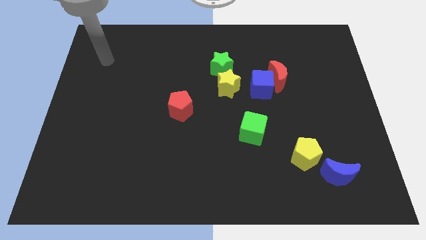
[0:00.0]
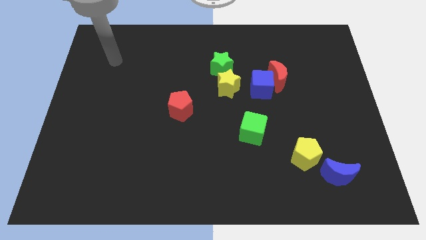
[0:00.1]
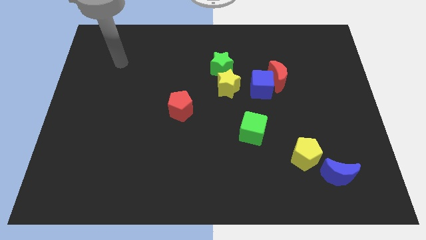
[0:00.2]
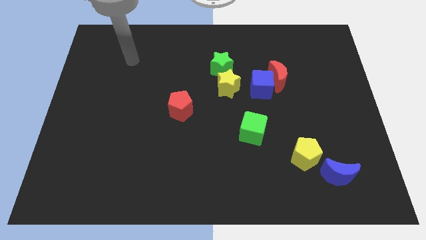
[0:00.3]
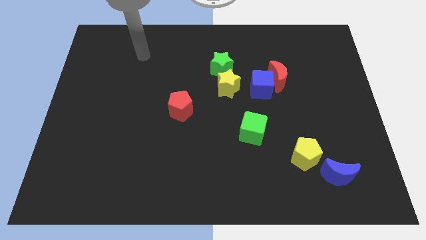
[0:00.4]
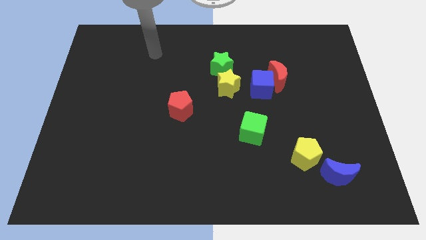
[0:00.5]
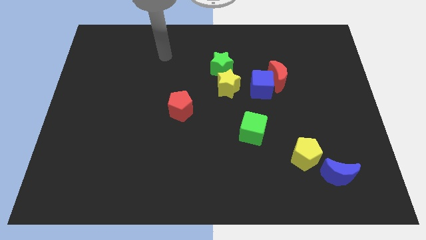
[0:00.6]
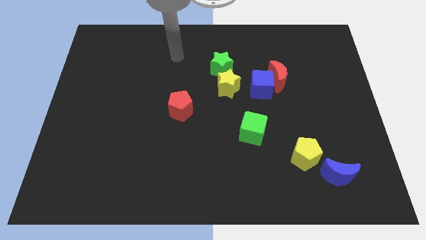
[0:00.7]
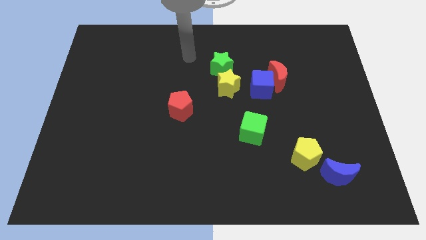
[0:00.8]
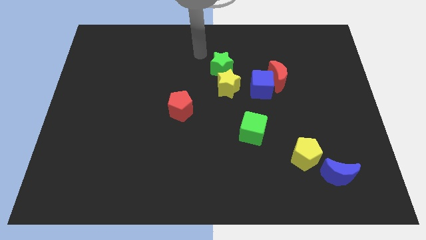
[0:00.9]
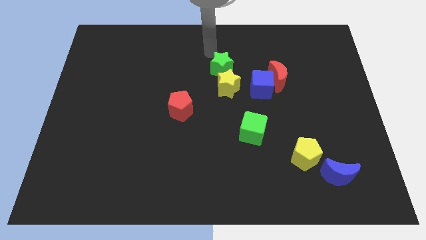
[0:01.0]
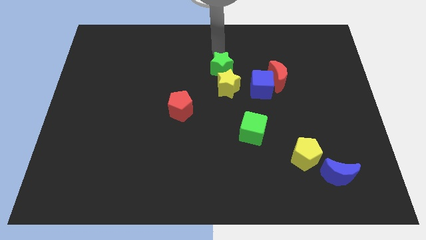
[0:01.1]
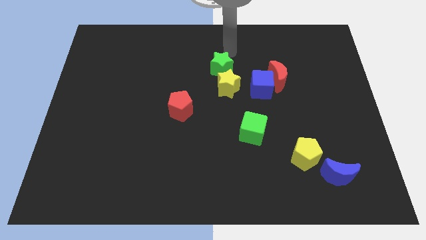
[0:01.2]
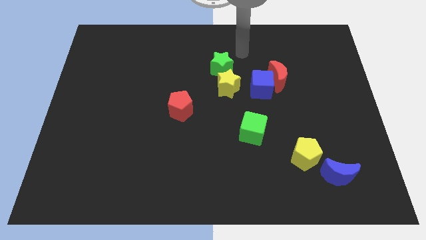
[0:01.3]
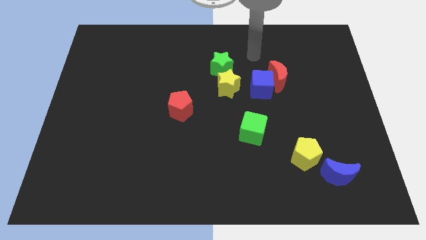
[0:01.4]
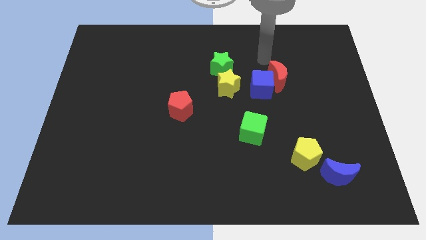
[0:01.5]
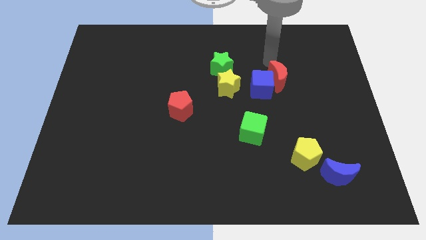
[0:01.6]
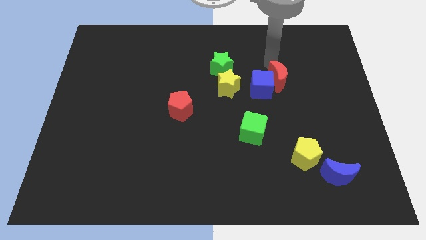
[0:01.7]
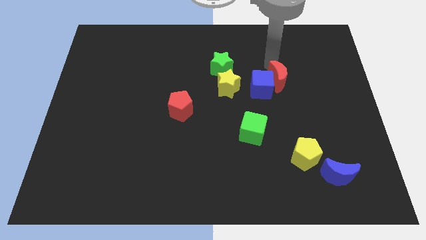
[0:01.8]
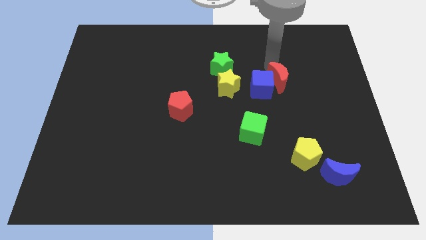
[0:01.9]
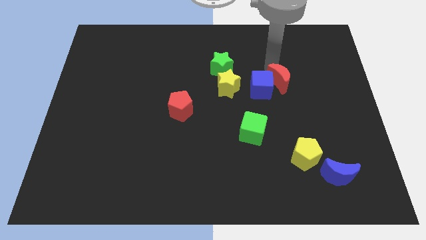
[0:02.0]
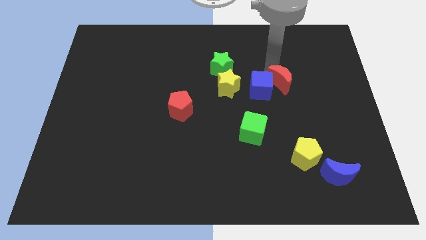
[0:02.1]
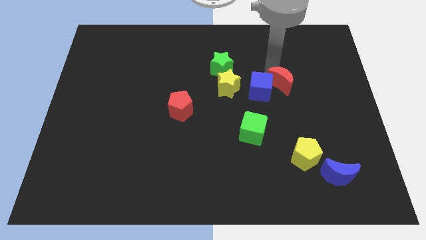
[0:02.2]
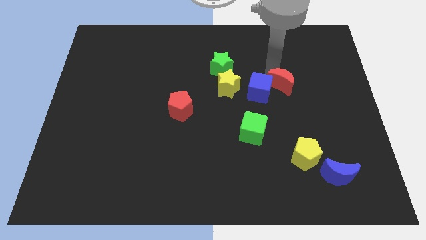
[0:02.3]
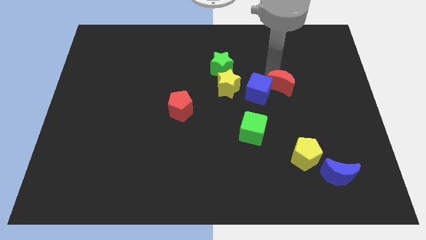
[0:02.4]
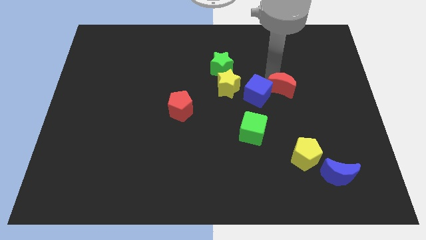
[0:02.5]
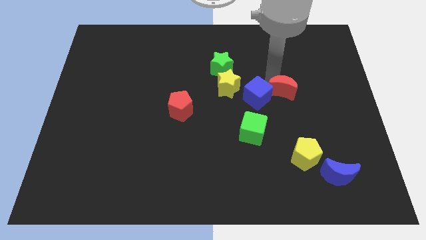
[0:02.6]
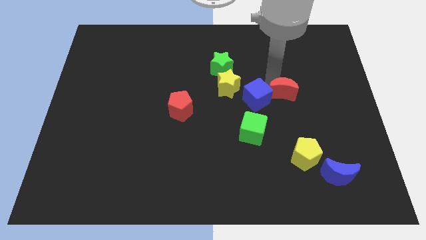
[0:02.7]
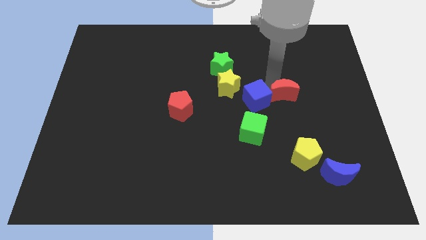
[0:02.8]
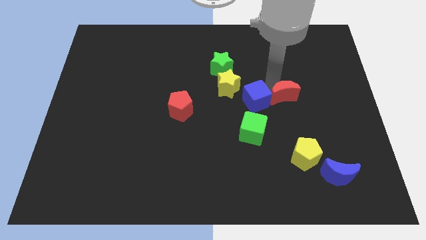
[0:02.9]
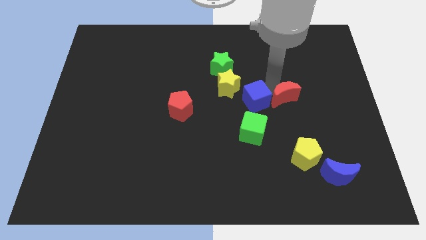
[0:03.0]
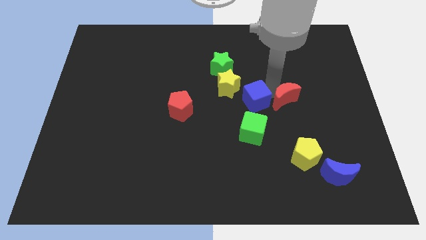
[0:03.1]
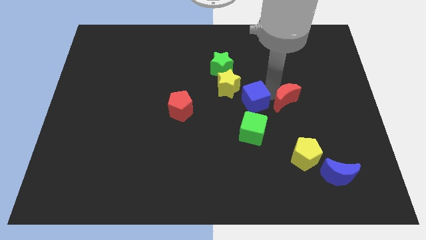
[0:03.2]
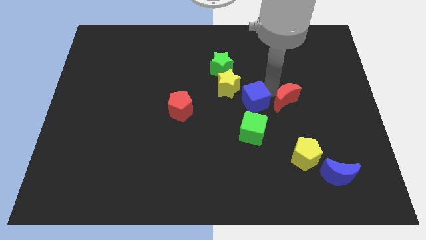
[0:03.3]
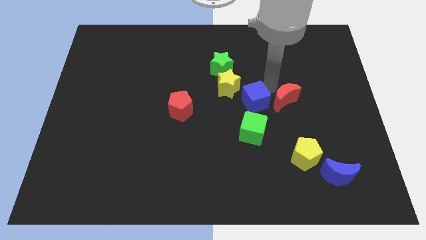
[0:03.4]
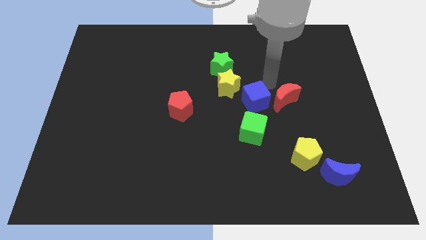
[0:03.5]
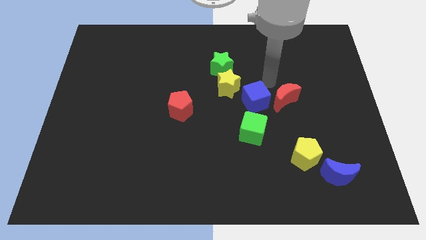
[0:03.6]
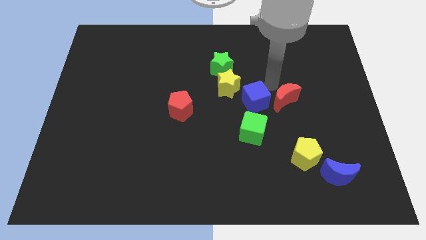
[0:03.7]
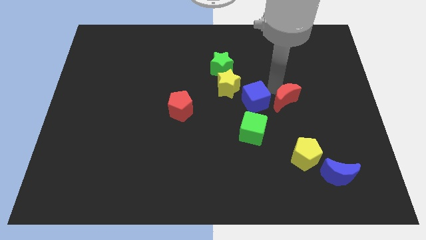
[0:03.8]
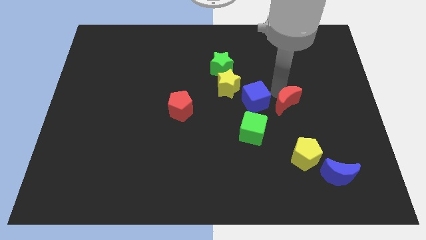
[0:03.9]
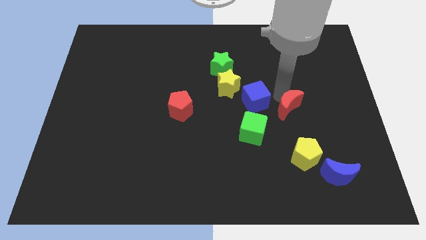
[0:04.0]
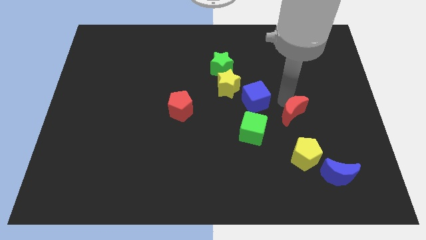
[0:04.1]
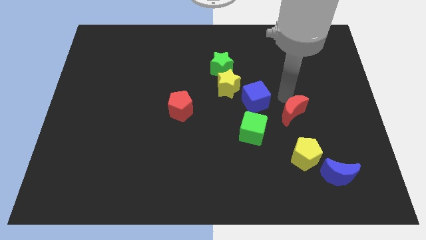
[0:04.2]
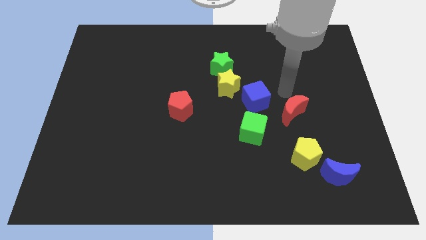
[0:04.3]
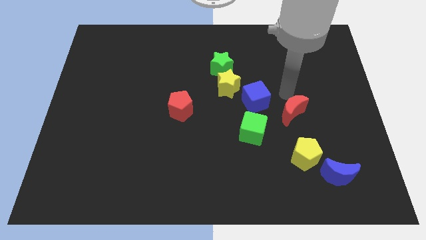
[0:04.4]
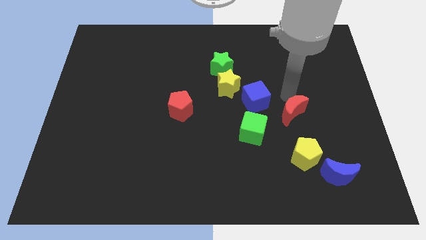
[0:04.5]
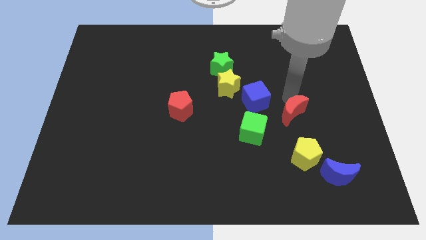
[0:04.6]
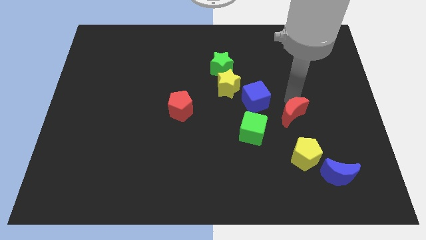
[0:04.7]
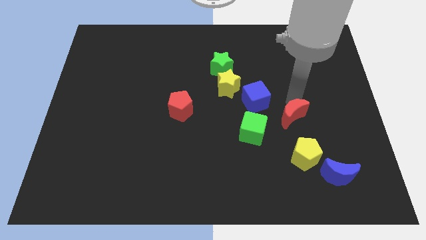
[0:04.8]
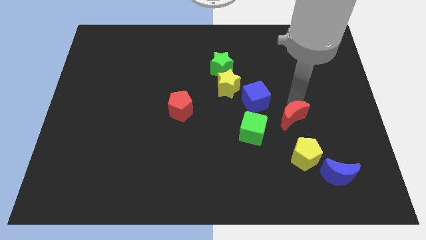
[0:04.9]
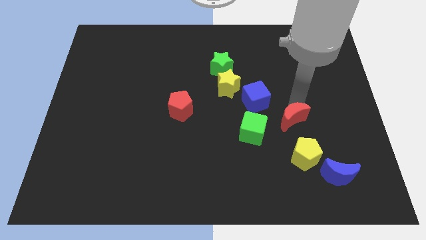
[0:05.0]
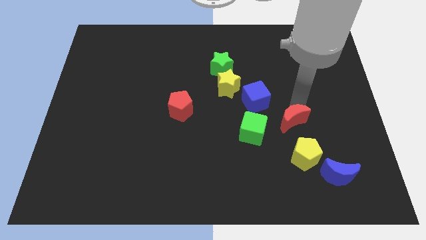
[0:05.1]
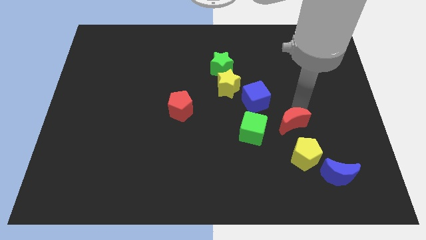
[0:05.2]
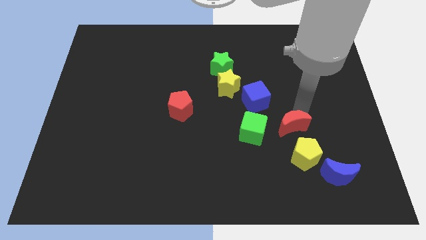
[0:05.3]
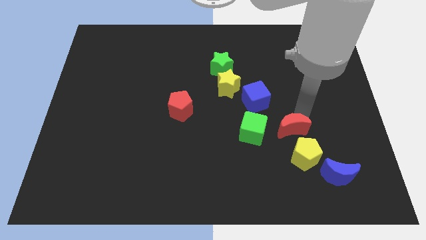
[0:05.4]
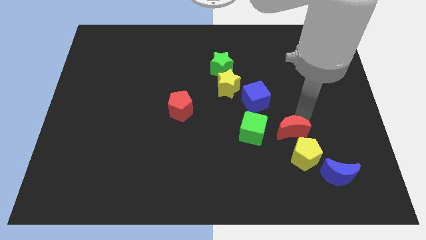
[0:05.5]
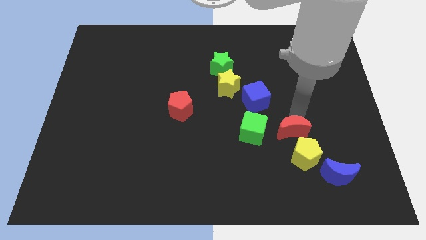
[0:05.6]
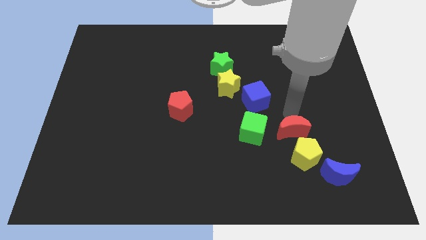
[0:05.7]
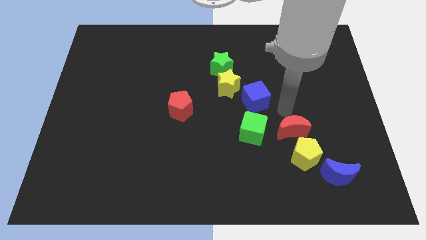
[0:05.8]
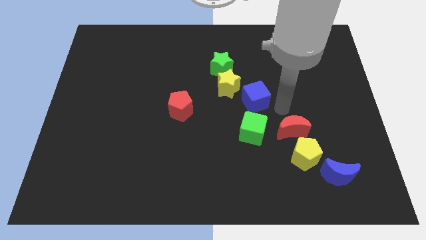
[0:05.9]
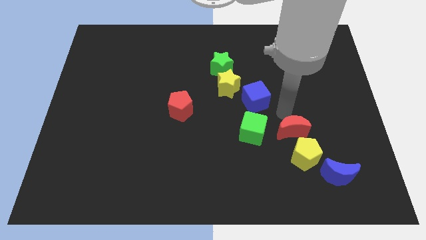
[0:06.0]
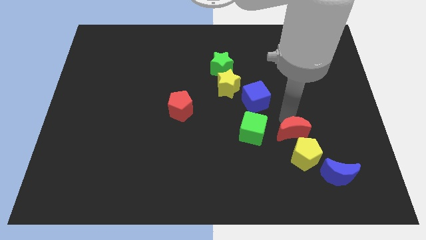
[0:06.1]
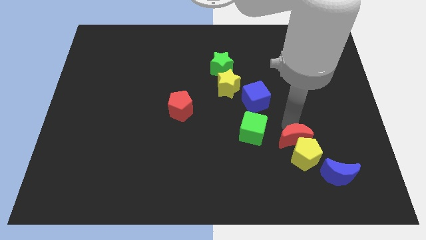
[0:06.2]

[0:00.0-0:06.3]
slide the red moon towards the yellow pentagon
